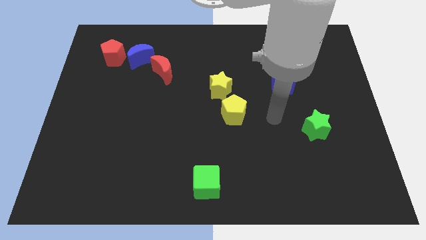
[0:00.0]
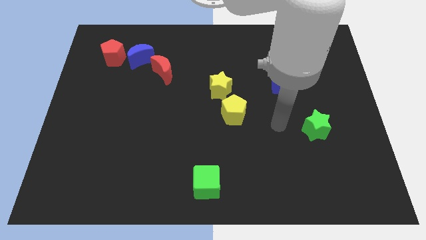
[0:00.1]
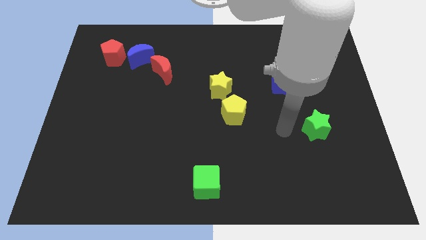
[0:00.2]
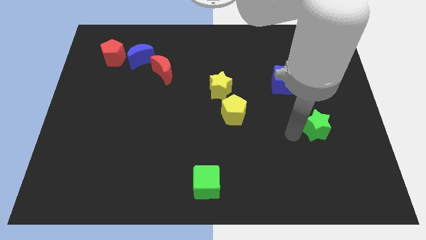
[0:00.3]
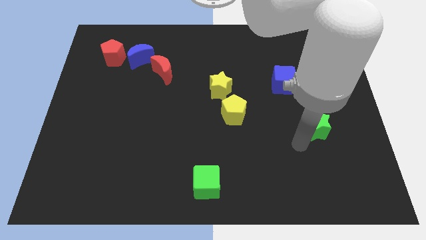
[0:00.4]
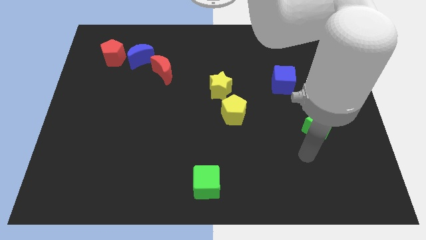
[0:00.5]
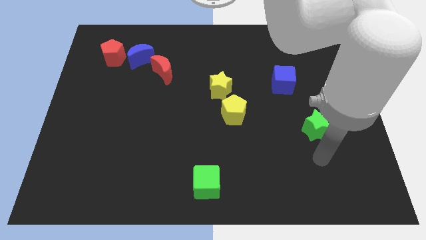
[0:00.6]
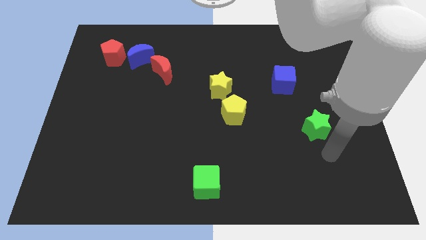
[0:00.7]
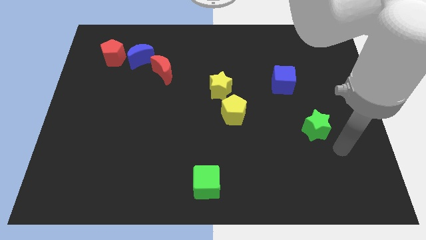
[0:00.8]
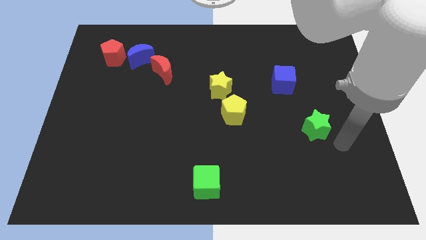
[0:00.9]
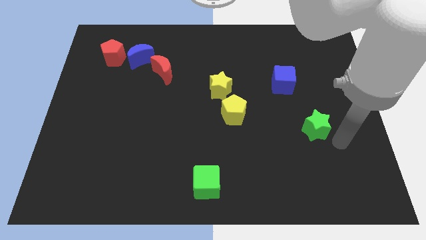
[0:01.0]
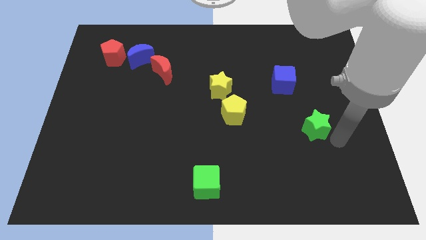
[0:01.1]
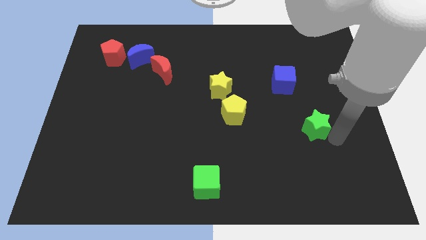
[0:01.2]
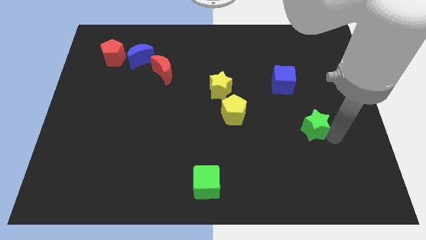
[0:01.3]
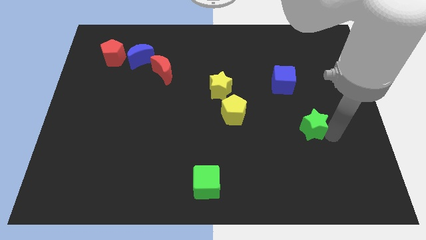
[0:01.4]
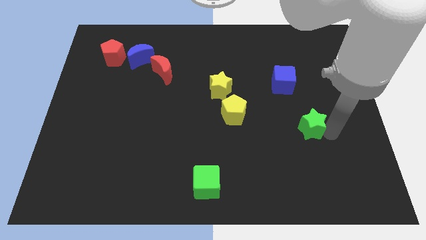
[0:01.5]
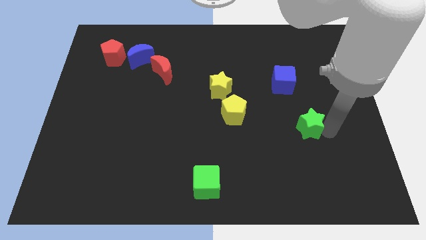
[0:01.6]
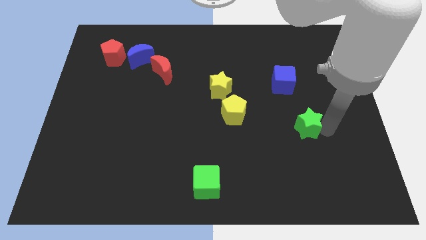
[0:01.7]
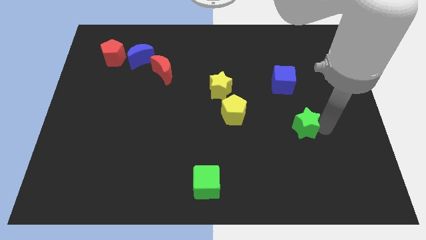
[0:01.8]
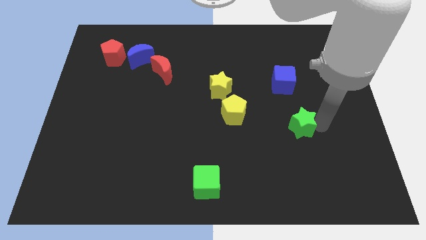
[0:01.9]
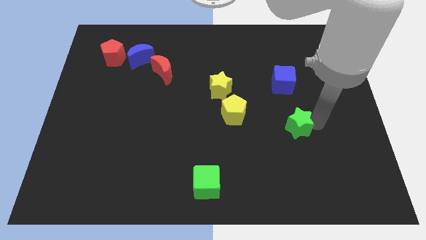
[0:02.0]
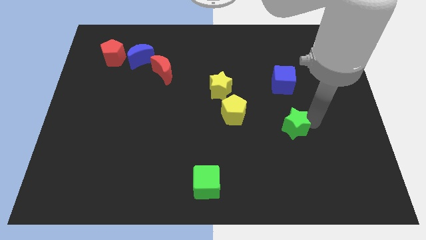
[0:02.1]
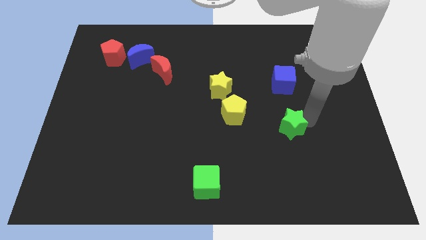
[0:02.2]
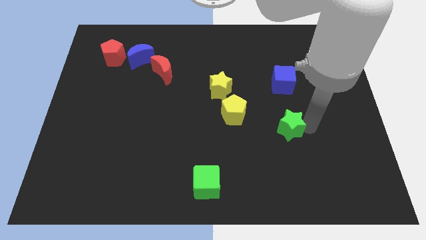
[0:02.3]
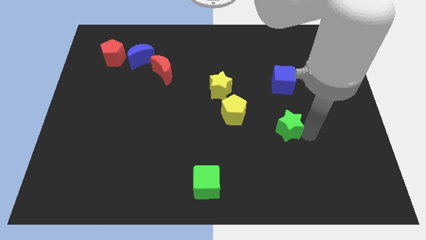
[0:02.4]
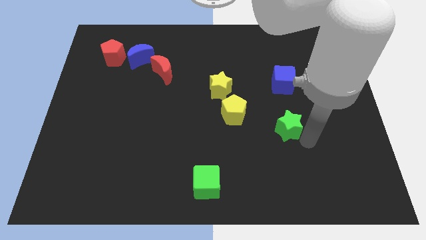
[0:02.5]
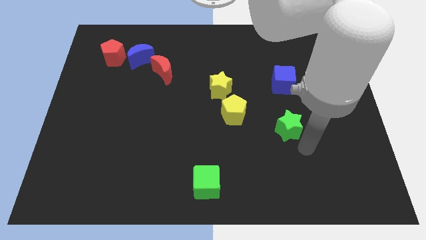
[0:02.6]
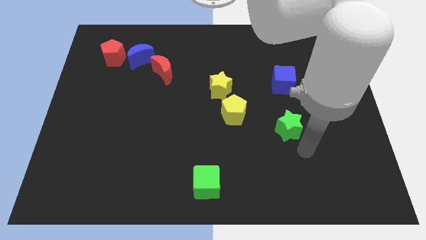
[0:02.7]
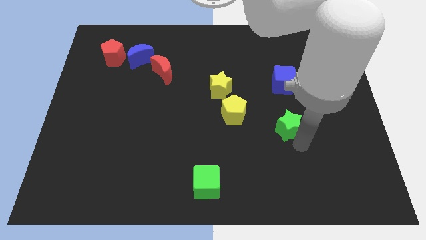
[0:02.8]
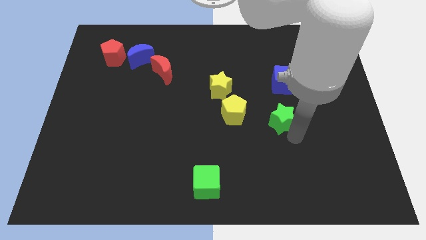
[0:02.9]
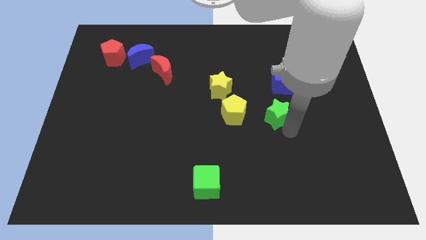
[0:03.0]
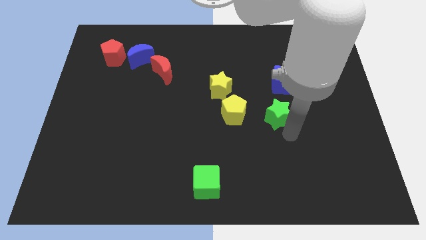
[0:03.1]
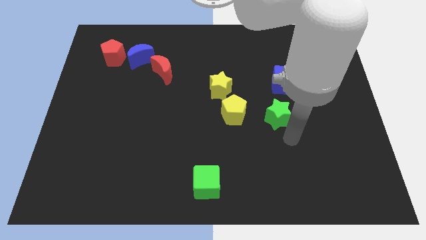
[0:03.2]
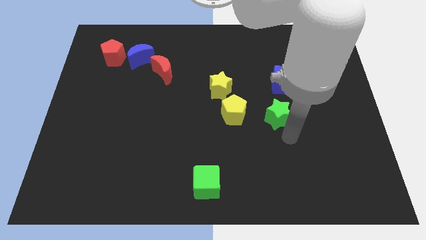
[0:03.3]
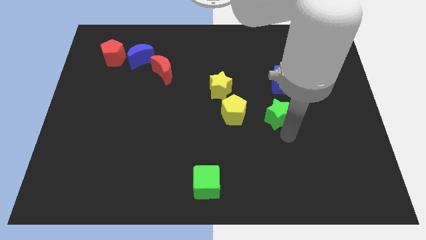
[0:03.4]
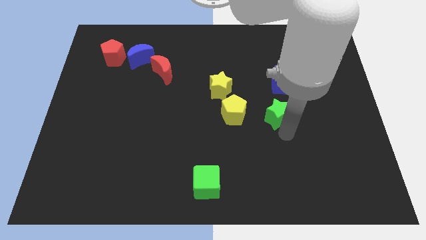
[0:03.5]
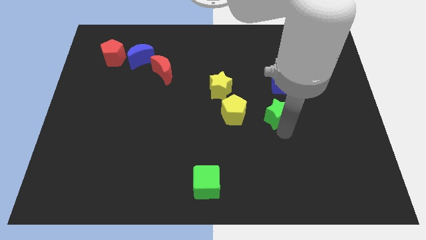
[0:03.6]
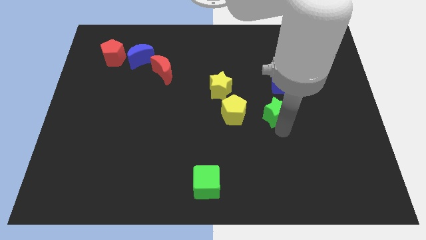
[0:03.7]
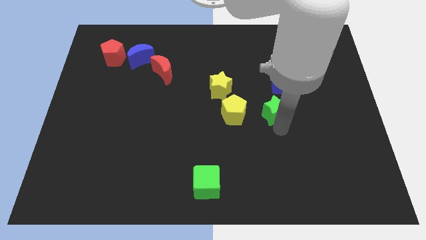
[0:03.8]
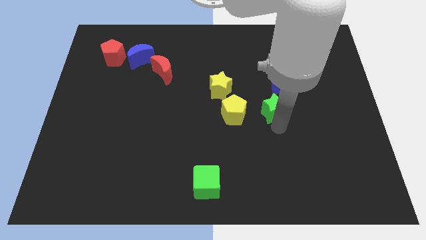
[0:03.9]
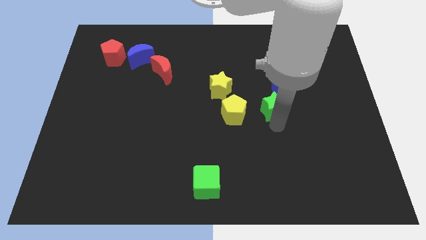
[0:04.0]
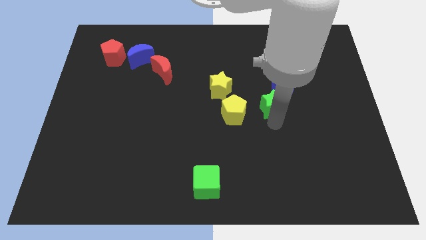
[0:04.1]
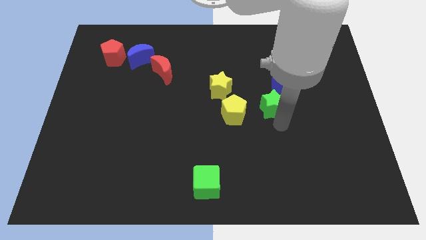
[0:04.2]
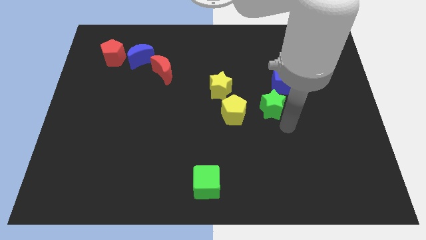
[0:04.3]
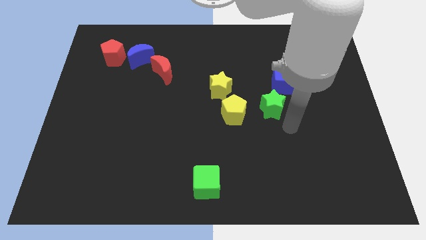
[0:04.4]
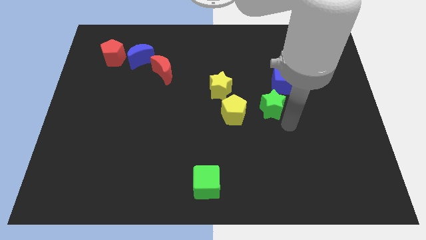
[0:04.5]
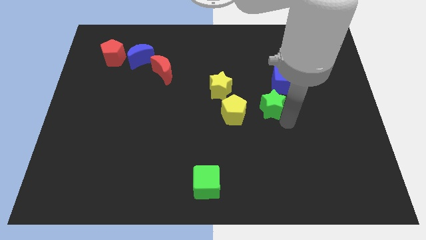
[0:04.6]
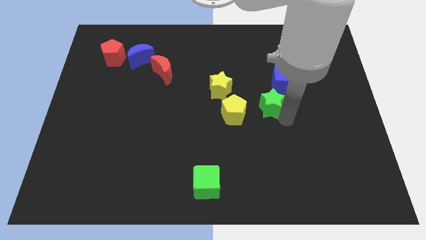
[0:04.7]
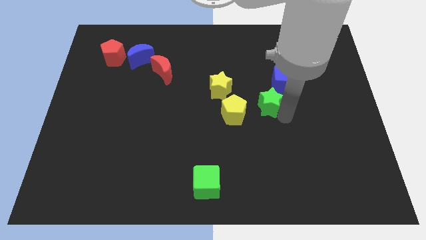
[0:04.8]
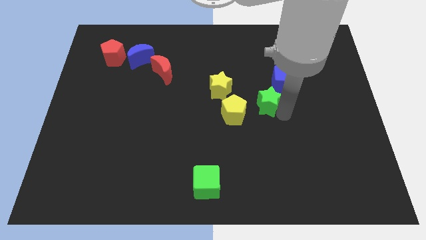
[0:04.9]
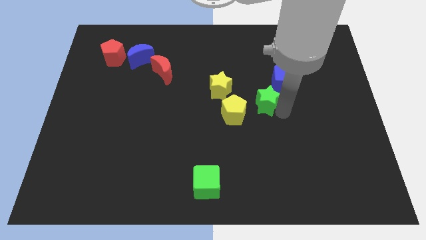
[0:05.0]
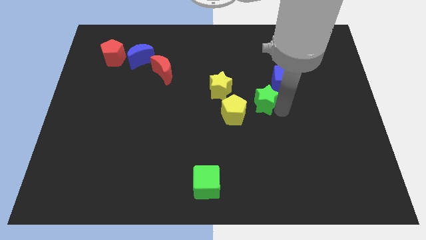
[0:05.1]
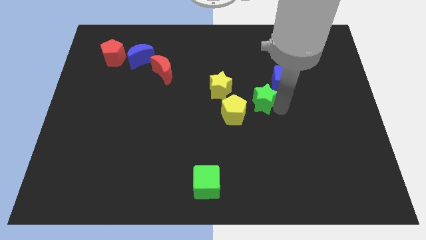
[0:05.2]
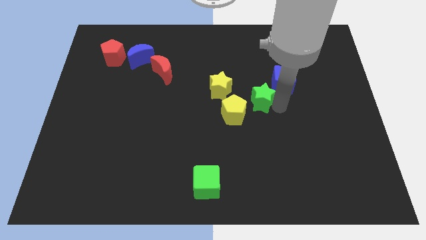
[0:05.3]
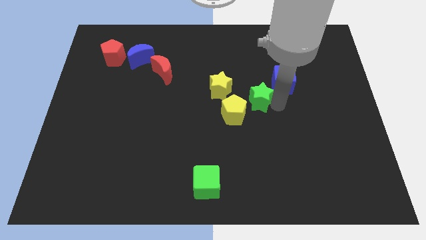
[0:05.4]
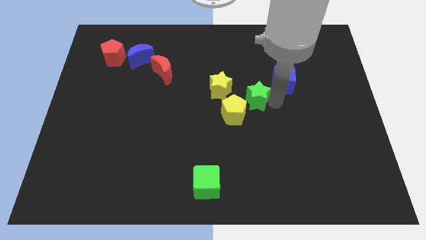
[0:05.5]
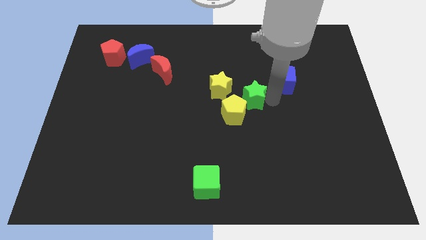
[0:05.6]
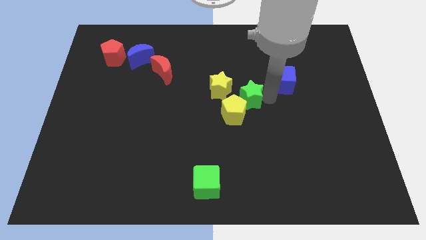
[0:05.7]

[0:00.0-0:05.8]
move the green star above the yellow pentagon

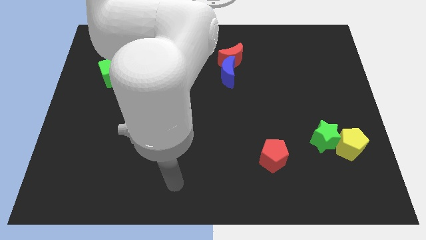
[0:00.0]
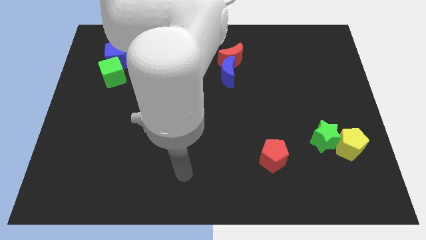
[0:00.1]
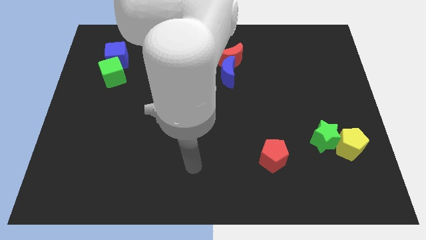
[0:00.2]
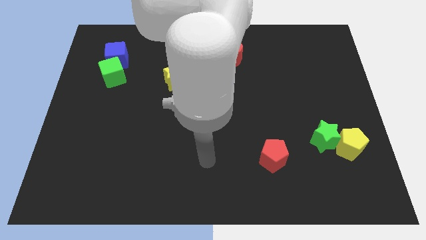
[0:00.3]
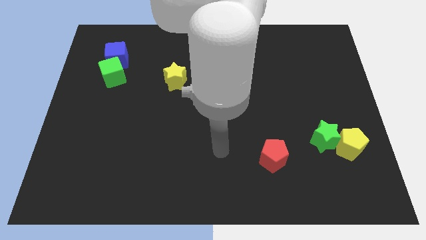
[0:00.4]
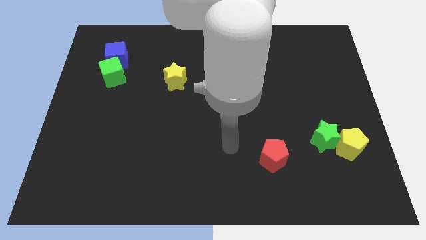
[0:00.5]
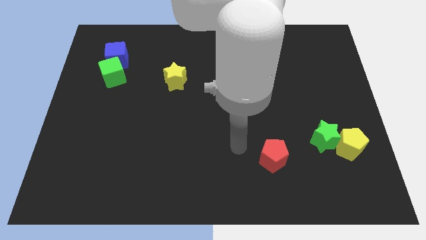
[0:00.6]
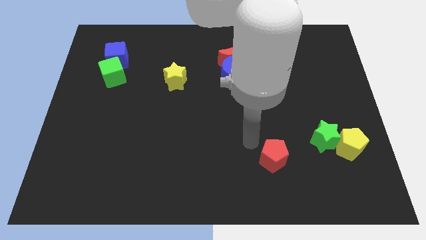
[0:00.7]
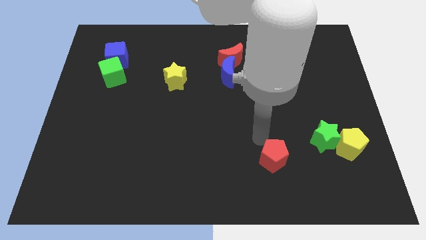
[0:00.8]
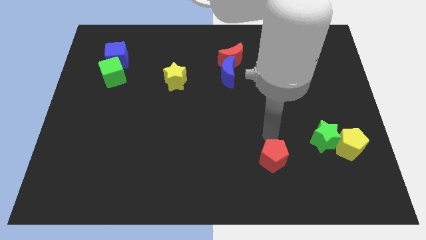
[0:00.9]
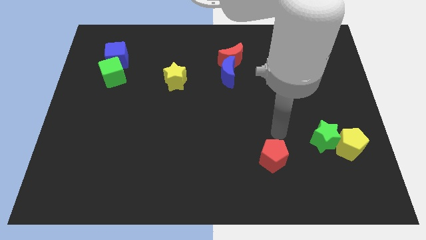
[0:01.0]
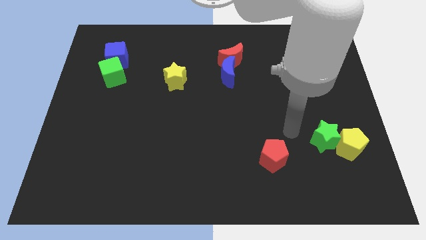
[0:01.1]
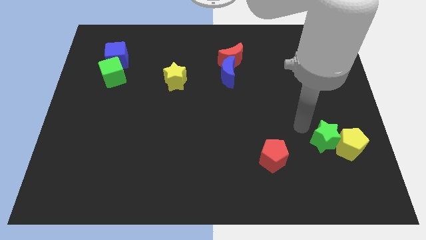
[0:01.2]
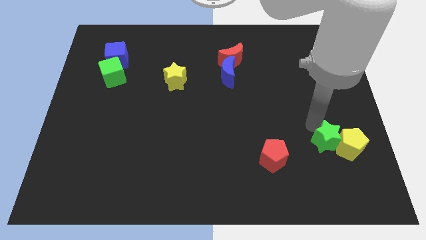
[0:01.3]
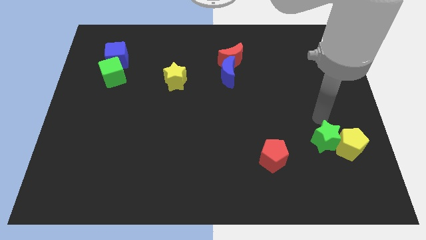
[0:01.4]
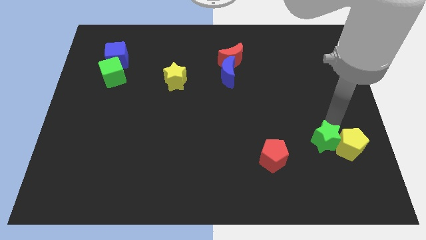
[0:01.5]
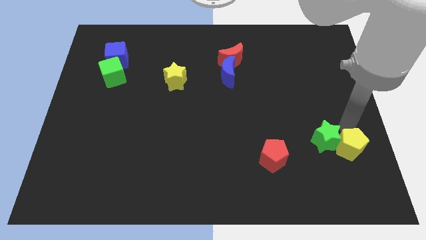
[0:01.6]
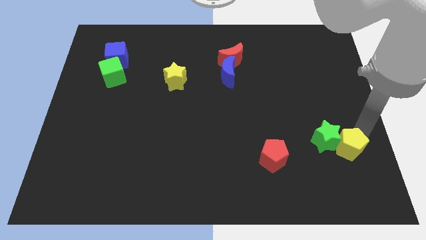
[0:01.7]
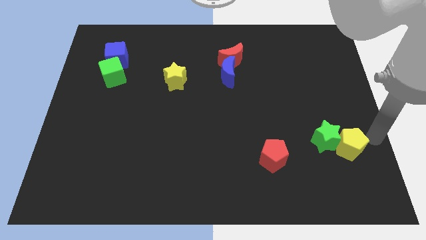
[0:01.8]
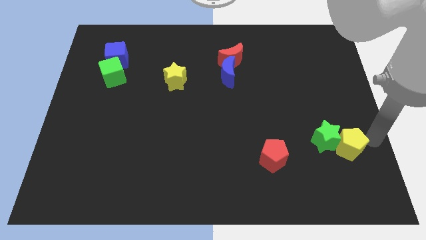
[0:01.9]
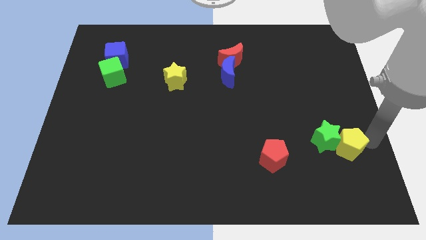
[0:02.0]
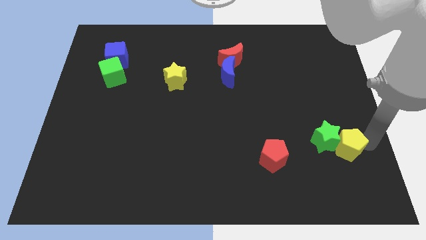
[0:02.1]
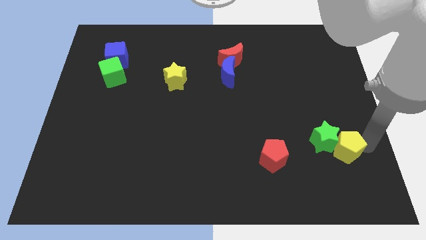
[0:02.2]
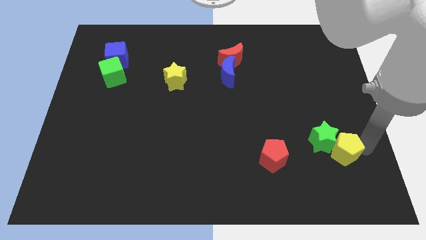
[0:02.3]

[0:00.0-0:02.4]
put the yellow pentagon to the right side of the red pentagon

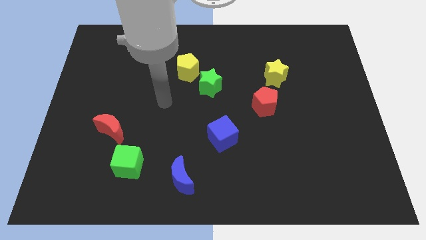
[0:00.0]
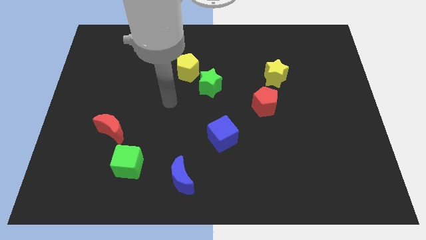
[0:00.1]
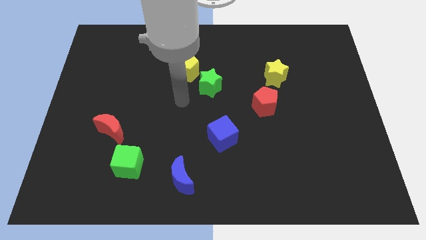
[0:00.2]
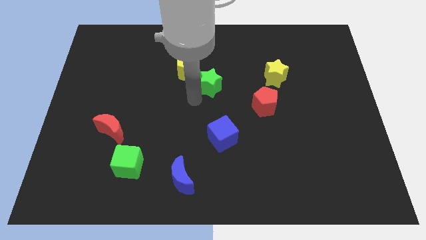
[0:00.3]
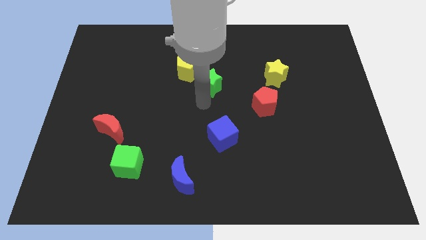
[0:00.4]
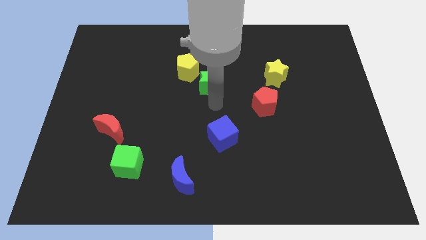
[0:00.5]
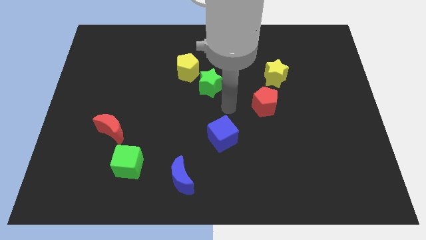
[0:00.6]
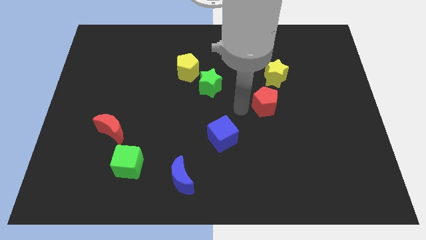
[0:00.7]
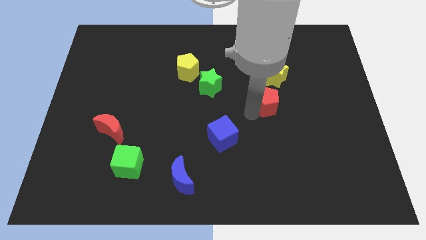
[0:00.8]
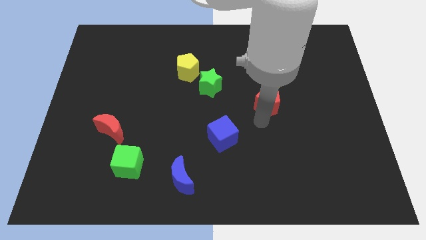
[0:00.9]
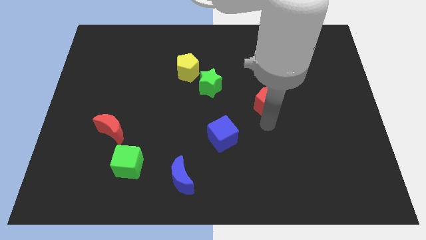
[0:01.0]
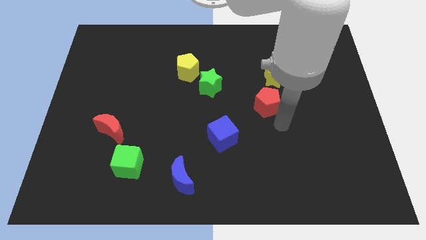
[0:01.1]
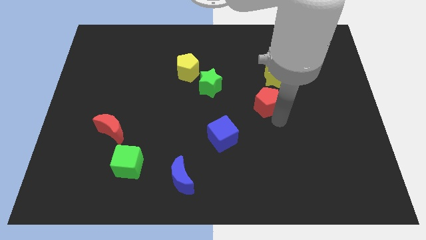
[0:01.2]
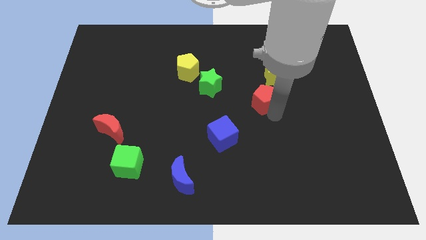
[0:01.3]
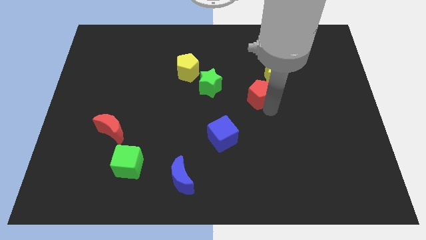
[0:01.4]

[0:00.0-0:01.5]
slide the red pentagon right of the green star
